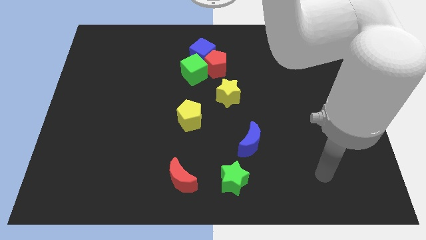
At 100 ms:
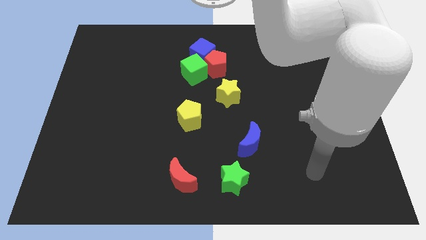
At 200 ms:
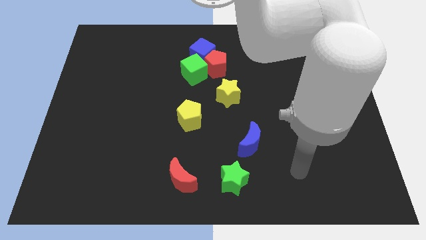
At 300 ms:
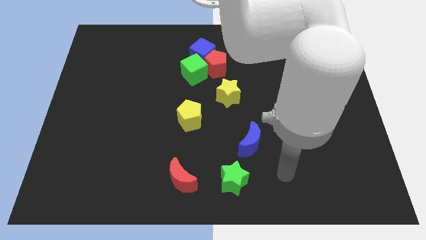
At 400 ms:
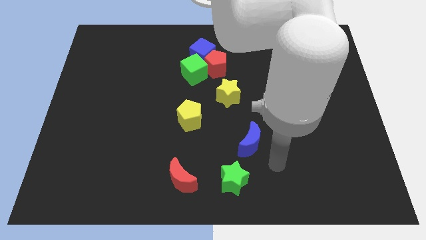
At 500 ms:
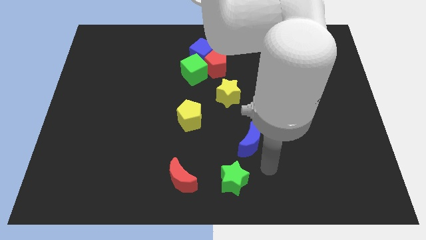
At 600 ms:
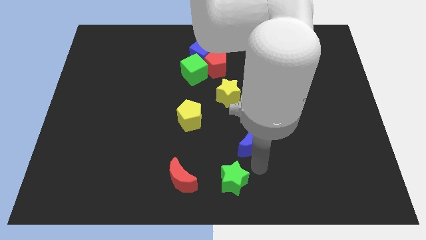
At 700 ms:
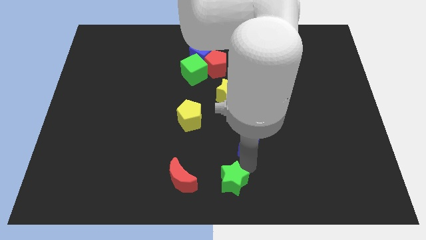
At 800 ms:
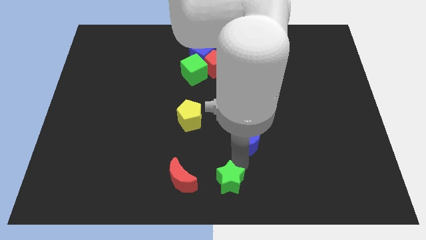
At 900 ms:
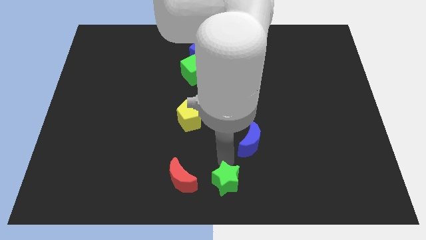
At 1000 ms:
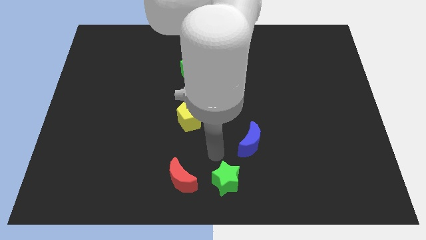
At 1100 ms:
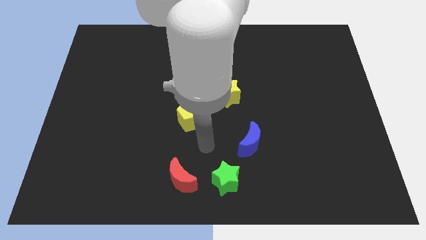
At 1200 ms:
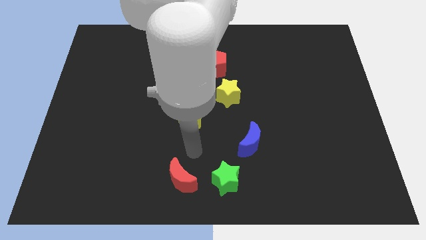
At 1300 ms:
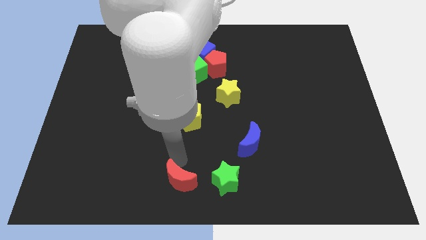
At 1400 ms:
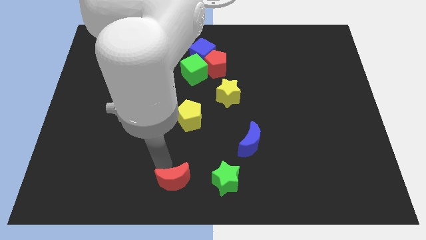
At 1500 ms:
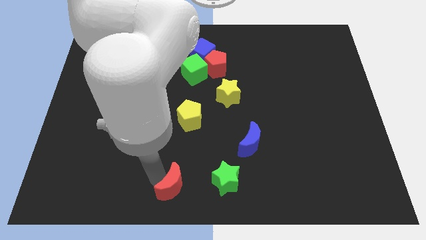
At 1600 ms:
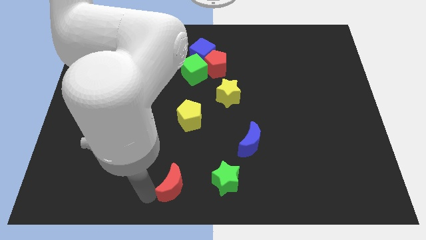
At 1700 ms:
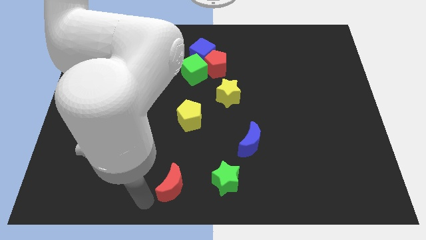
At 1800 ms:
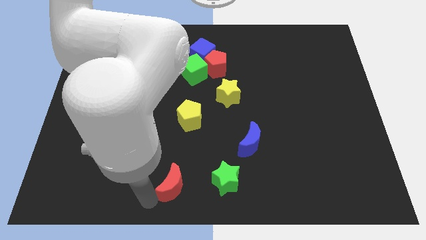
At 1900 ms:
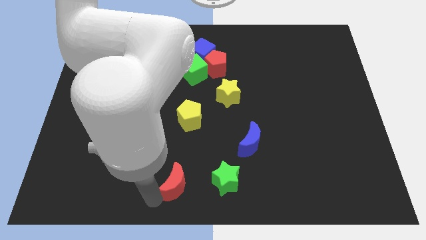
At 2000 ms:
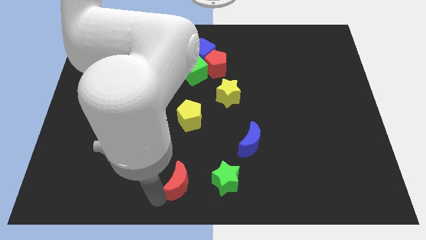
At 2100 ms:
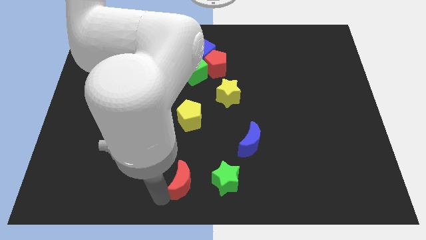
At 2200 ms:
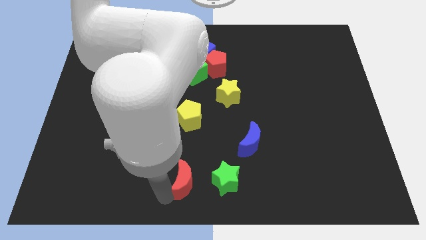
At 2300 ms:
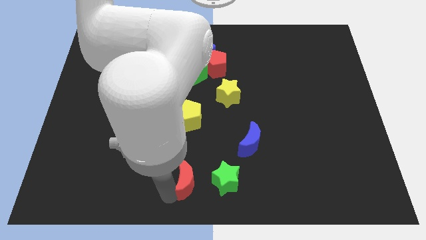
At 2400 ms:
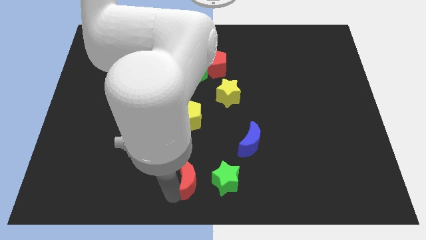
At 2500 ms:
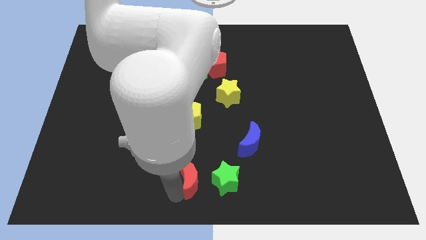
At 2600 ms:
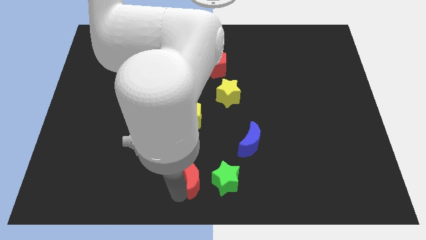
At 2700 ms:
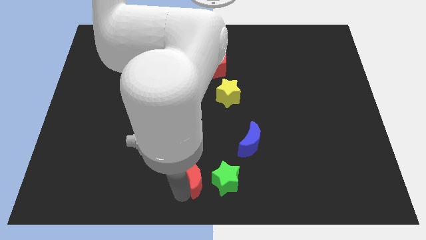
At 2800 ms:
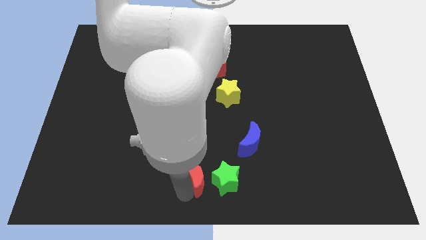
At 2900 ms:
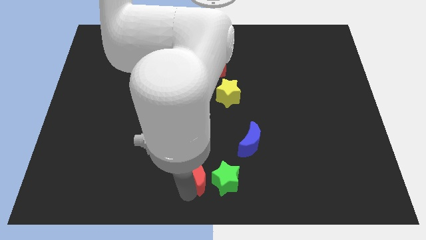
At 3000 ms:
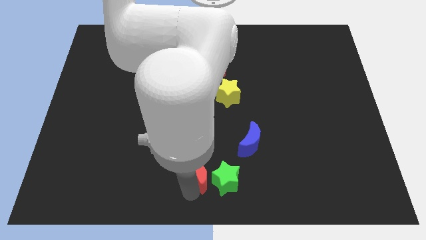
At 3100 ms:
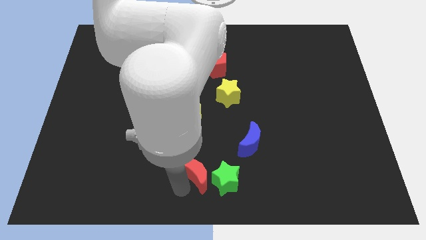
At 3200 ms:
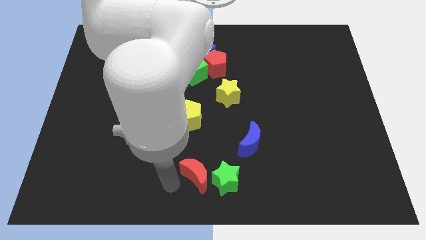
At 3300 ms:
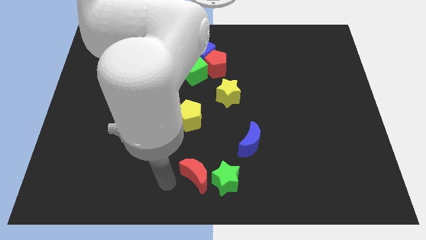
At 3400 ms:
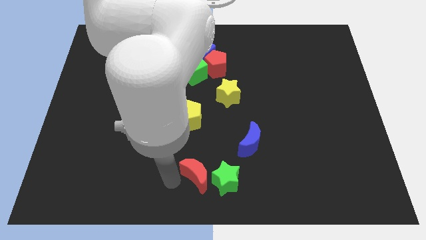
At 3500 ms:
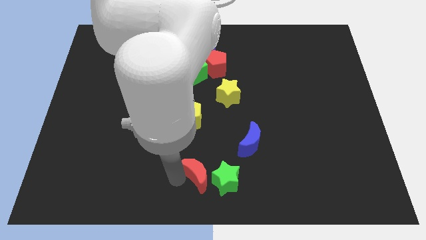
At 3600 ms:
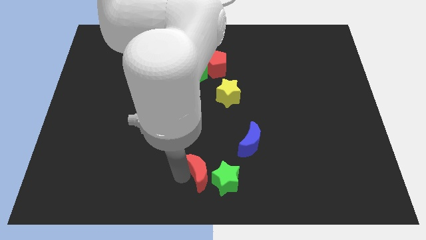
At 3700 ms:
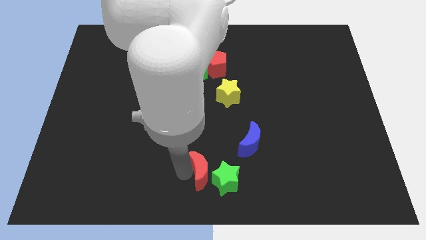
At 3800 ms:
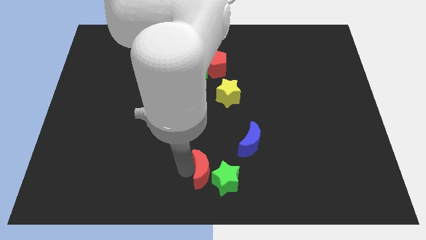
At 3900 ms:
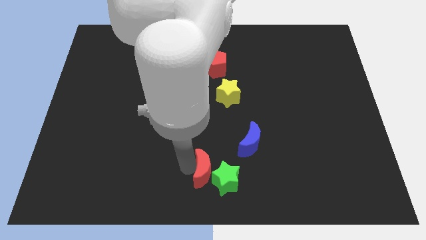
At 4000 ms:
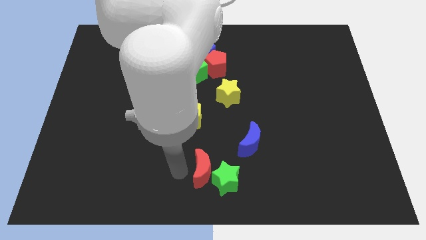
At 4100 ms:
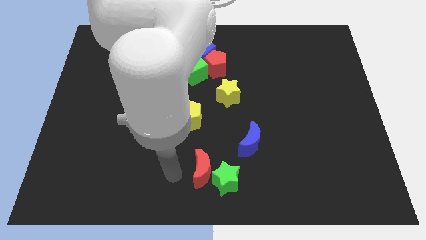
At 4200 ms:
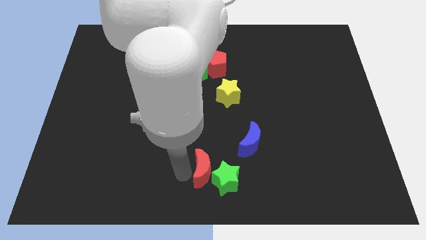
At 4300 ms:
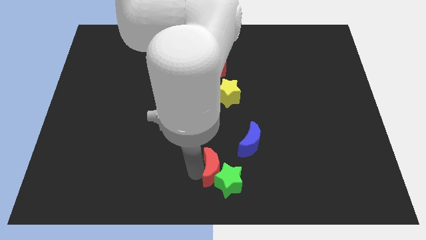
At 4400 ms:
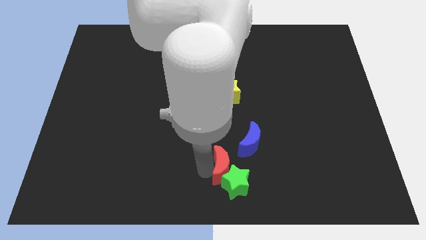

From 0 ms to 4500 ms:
slightly move the red moon to the right

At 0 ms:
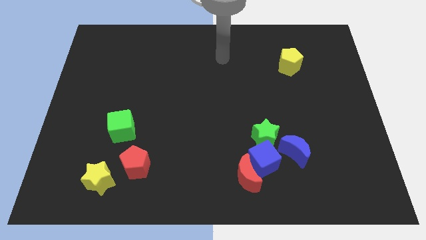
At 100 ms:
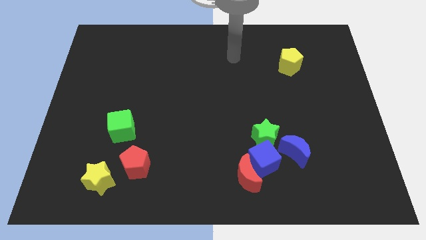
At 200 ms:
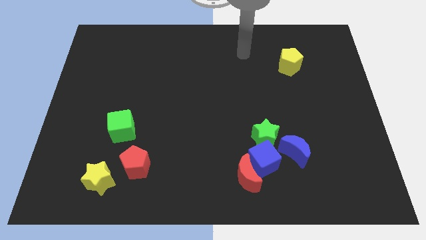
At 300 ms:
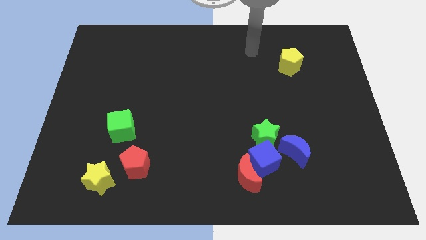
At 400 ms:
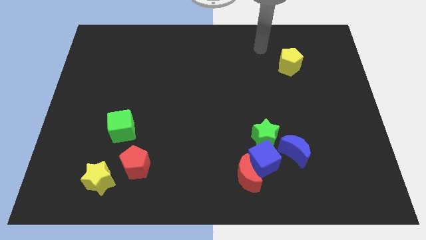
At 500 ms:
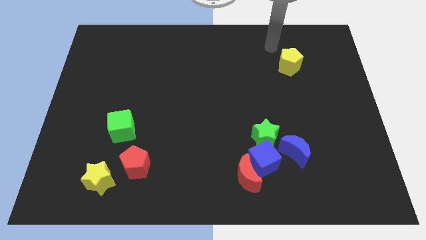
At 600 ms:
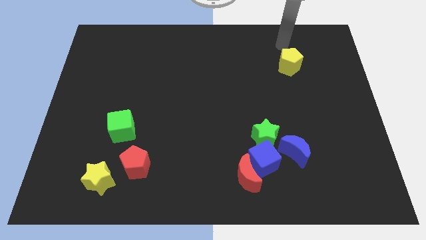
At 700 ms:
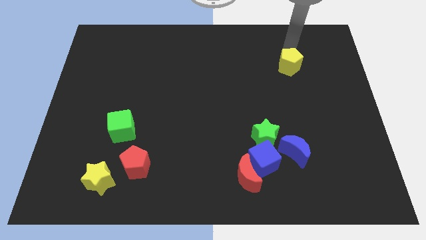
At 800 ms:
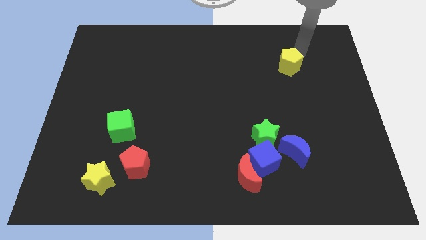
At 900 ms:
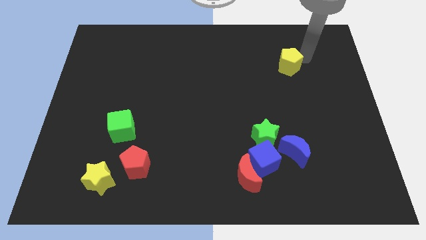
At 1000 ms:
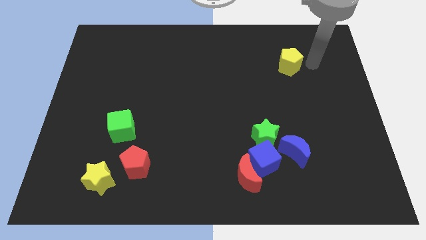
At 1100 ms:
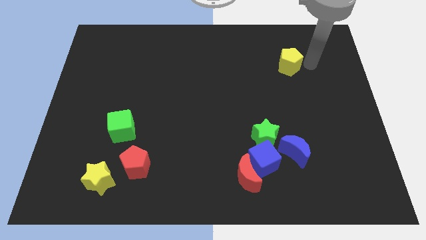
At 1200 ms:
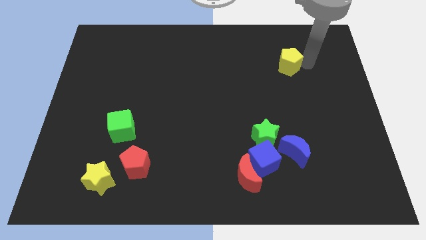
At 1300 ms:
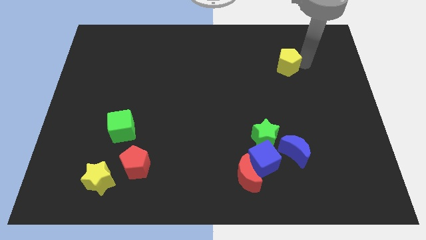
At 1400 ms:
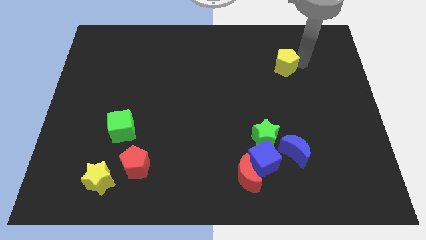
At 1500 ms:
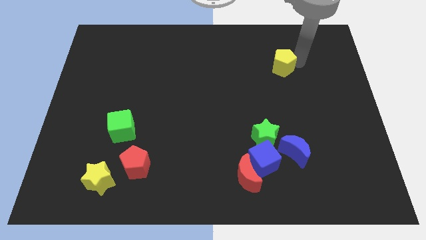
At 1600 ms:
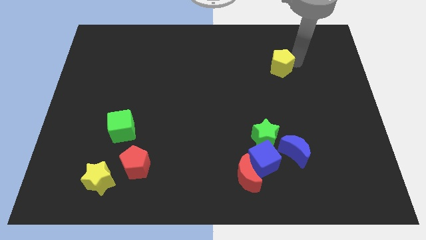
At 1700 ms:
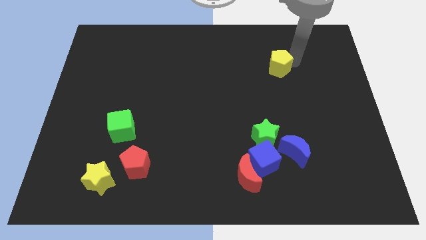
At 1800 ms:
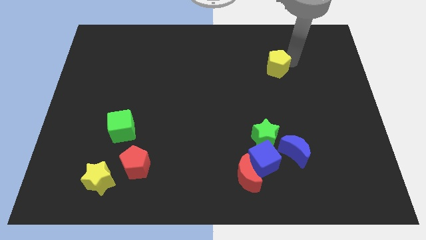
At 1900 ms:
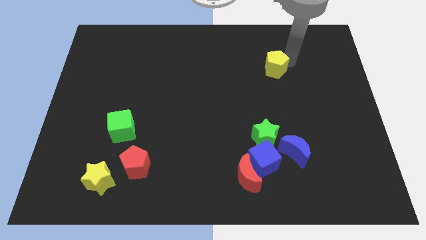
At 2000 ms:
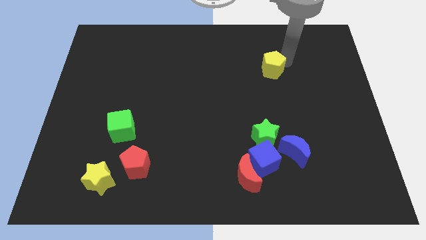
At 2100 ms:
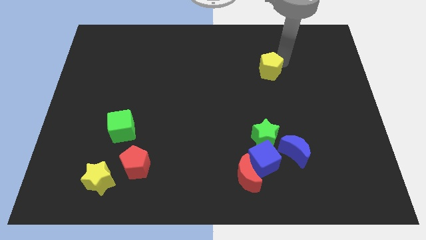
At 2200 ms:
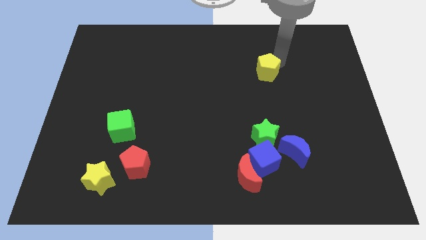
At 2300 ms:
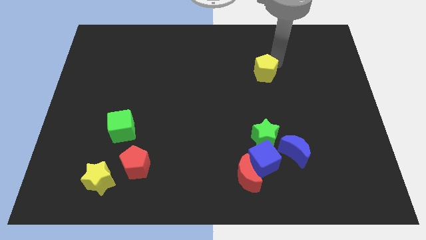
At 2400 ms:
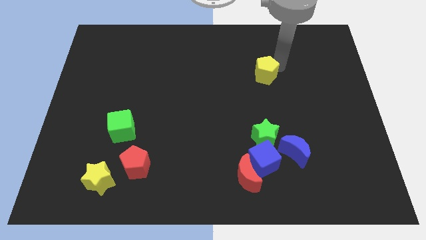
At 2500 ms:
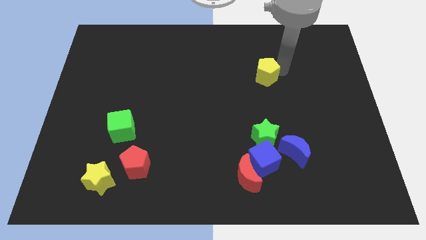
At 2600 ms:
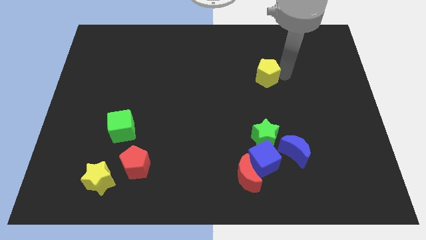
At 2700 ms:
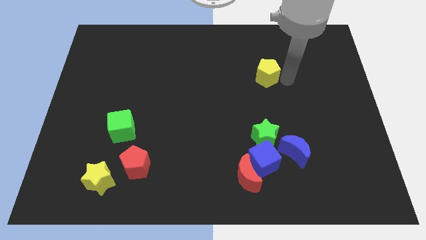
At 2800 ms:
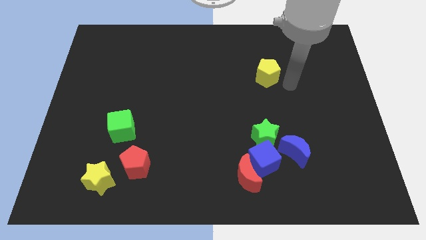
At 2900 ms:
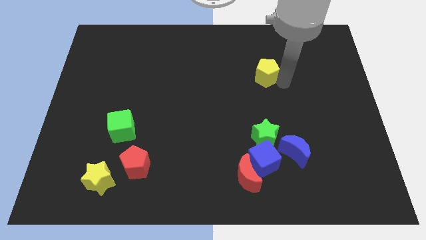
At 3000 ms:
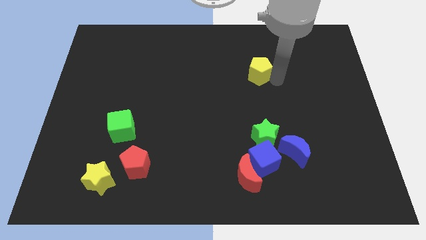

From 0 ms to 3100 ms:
move the yellow pentagon to the left slightly

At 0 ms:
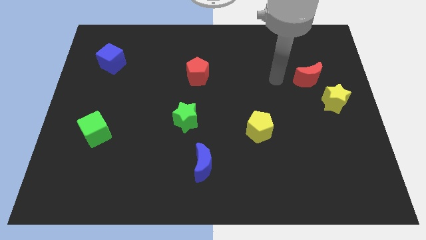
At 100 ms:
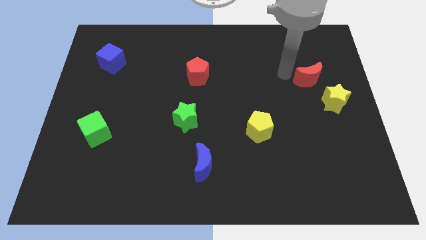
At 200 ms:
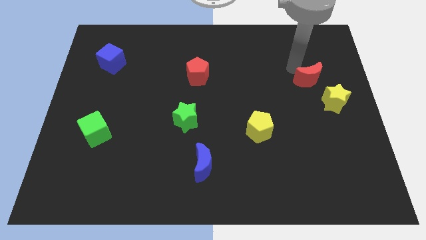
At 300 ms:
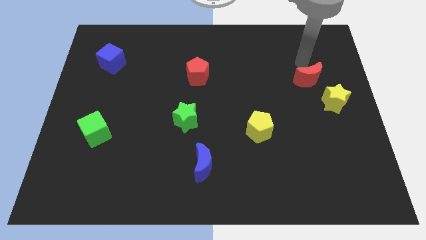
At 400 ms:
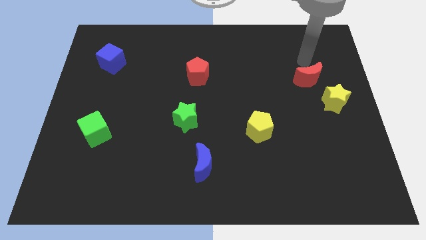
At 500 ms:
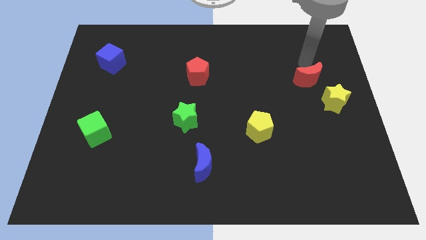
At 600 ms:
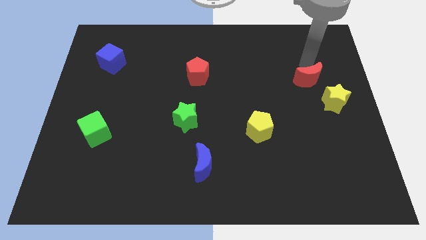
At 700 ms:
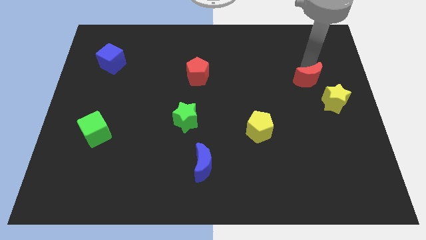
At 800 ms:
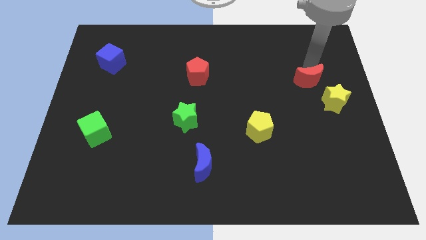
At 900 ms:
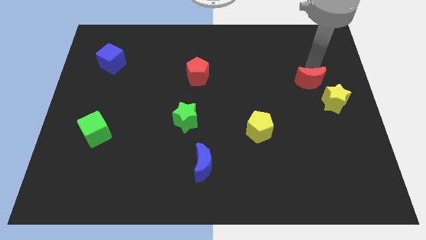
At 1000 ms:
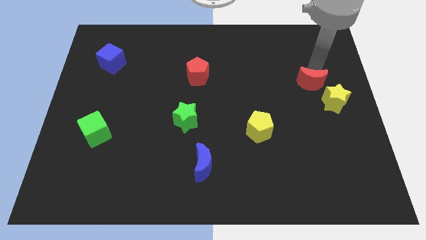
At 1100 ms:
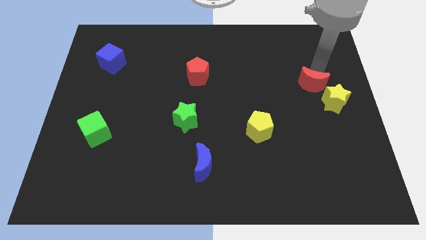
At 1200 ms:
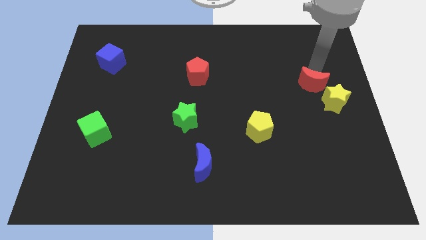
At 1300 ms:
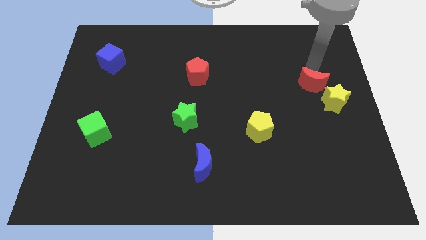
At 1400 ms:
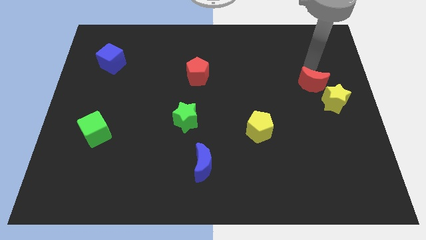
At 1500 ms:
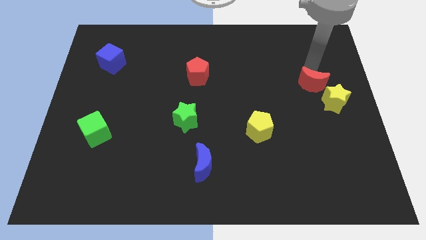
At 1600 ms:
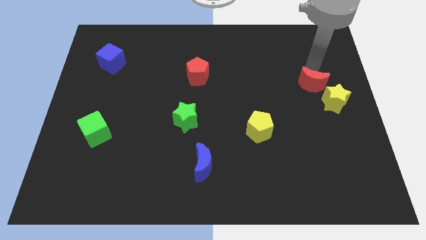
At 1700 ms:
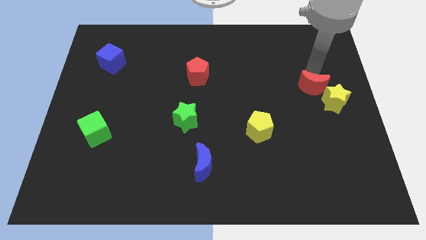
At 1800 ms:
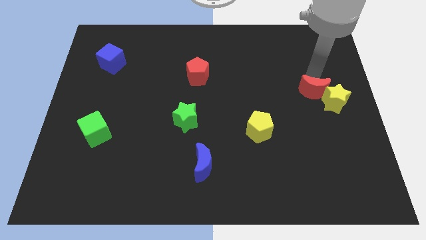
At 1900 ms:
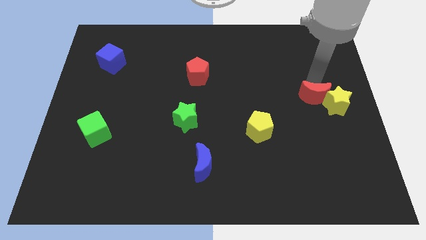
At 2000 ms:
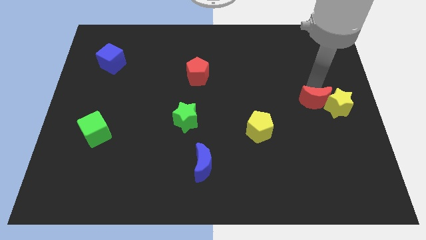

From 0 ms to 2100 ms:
push the red moon down a bit
